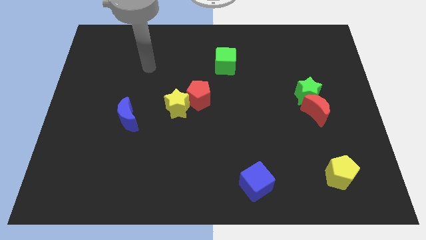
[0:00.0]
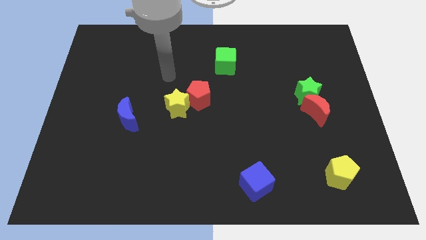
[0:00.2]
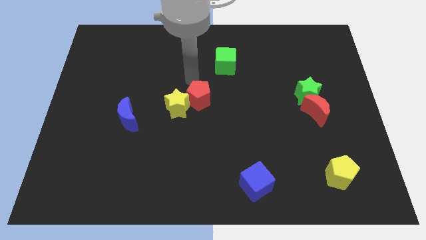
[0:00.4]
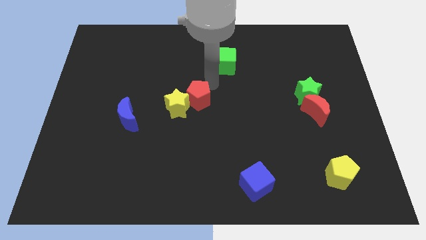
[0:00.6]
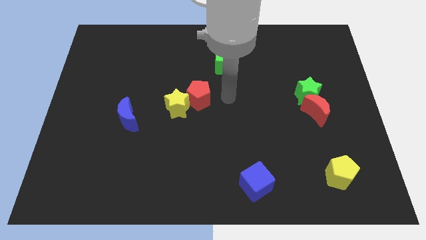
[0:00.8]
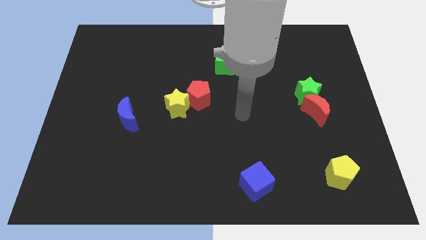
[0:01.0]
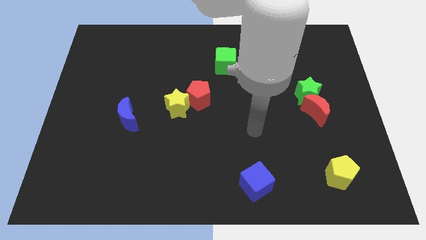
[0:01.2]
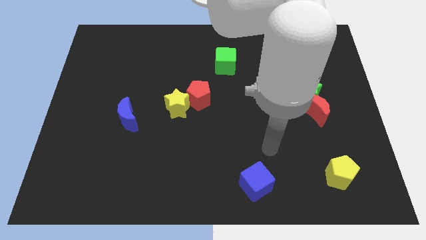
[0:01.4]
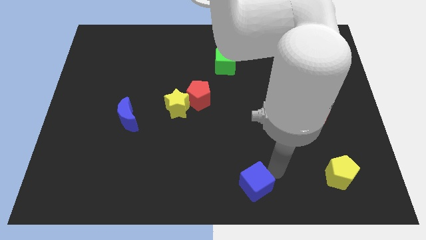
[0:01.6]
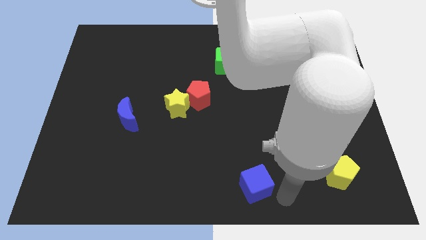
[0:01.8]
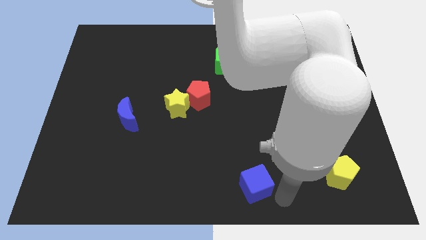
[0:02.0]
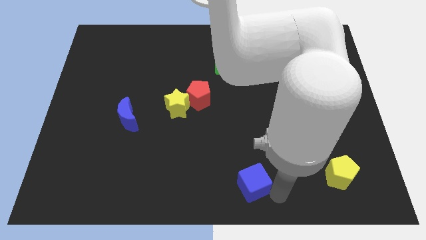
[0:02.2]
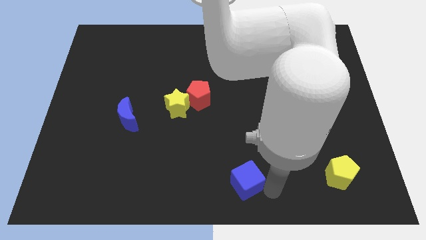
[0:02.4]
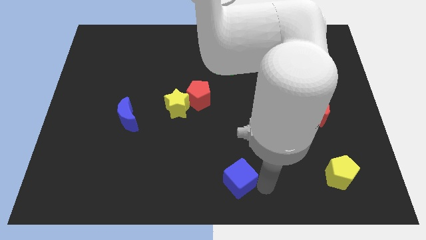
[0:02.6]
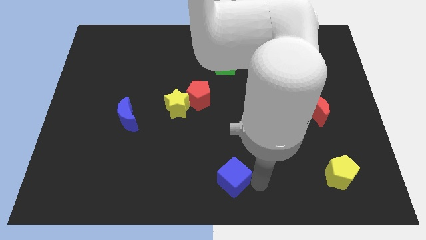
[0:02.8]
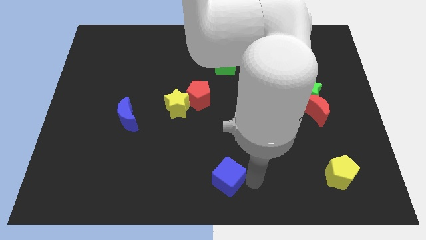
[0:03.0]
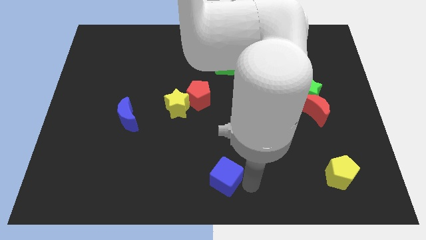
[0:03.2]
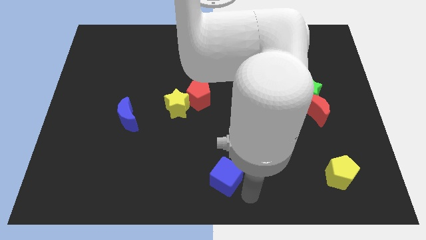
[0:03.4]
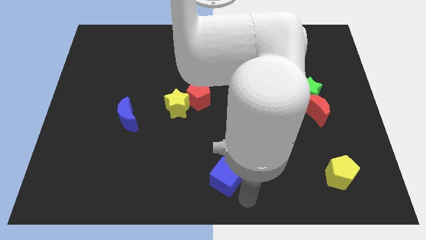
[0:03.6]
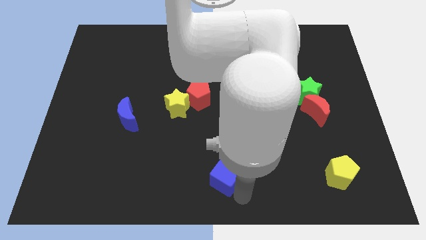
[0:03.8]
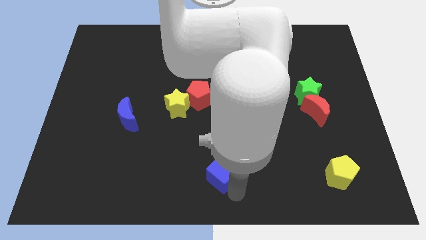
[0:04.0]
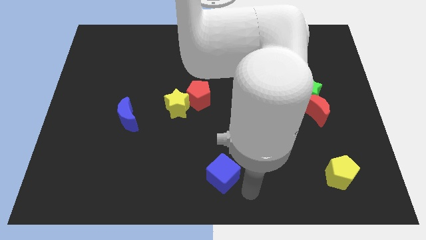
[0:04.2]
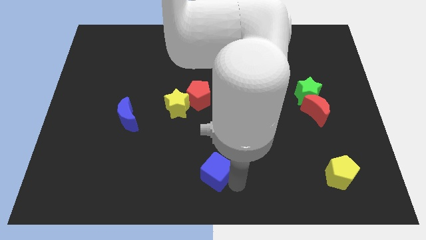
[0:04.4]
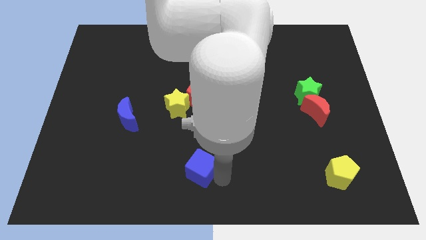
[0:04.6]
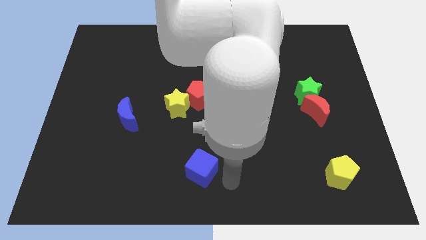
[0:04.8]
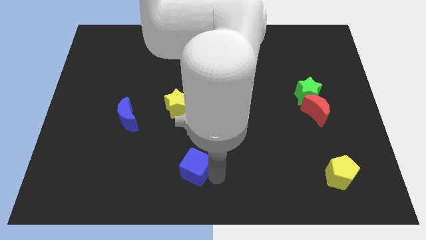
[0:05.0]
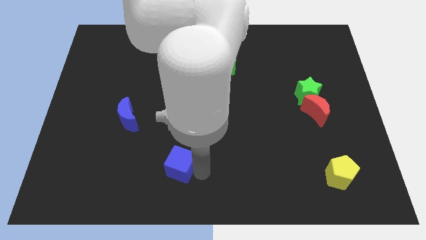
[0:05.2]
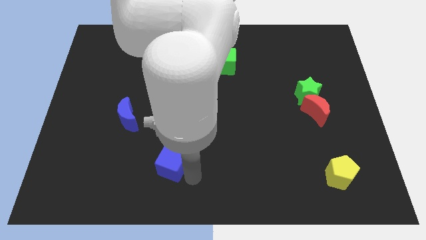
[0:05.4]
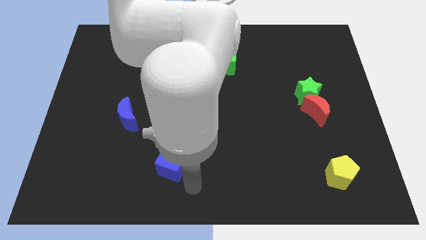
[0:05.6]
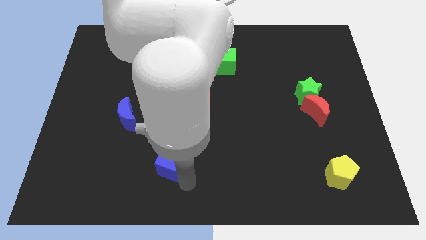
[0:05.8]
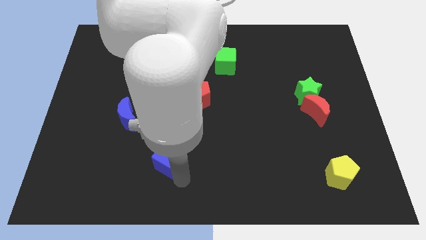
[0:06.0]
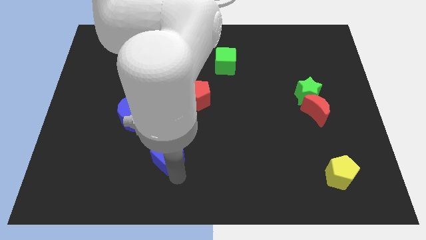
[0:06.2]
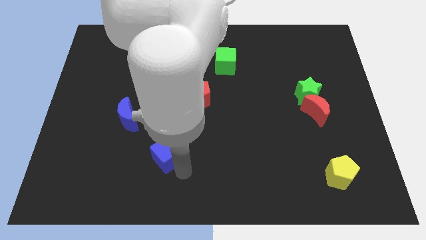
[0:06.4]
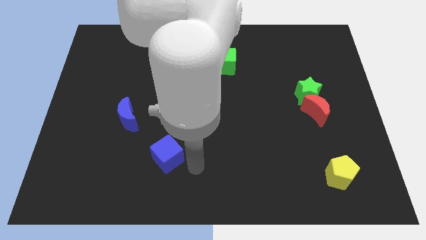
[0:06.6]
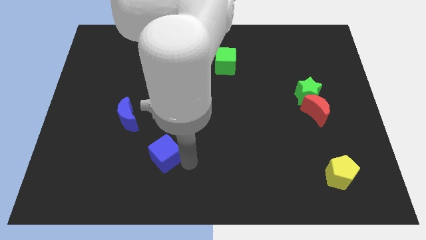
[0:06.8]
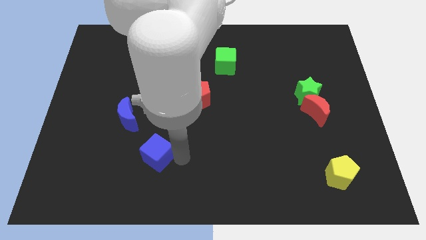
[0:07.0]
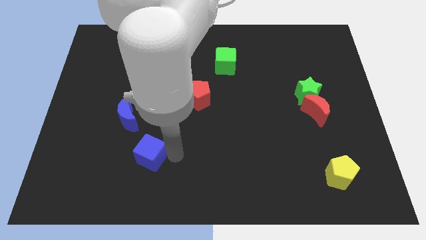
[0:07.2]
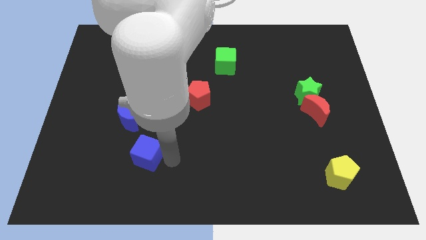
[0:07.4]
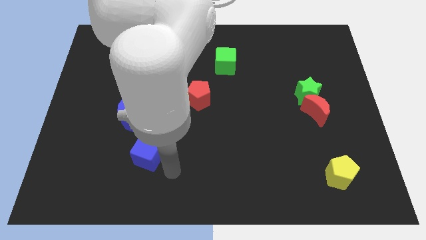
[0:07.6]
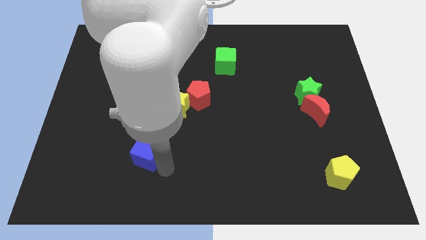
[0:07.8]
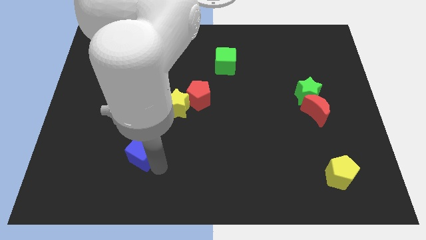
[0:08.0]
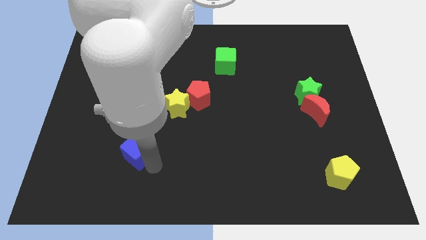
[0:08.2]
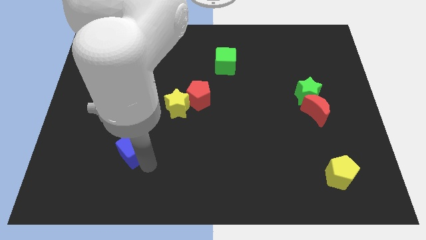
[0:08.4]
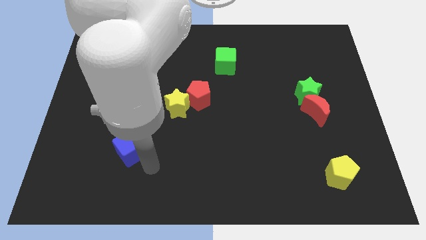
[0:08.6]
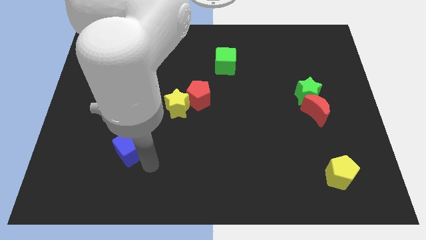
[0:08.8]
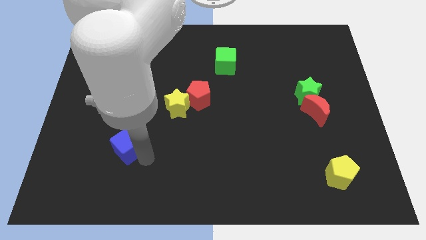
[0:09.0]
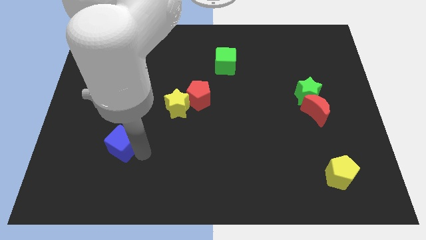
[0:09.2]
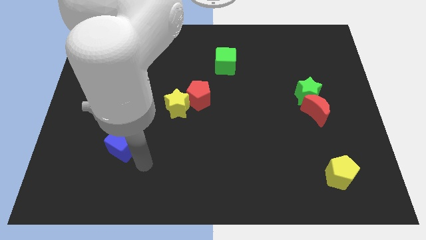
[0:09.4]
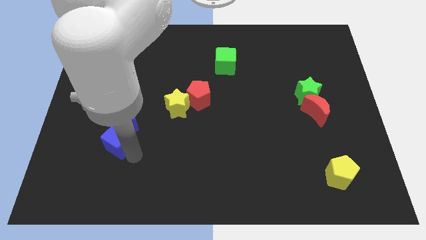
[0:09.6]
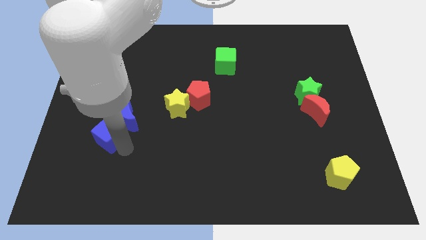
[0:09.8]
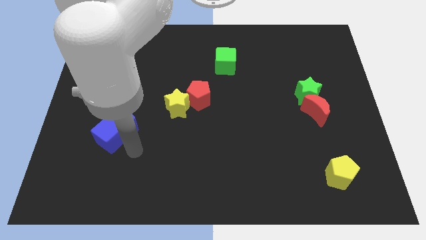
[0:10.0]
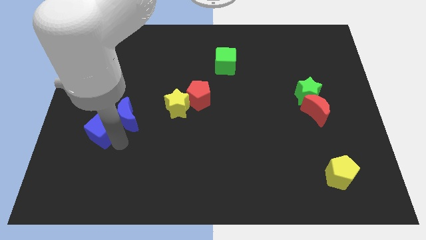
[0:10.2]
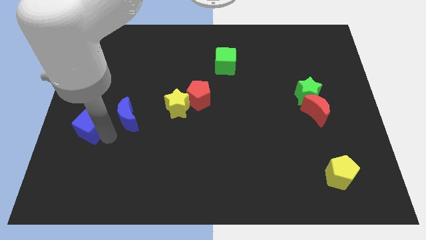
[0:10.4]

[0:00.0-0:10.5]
slide the blue cube to the left side of the board

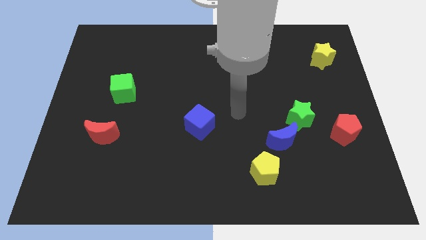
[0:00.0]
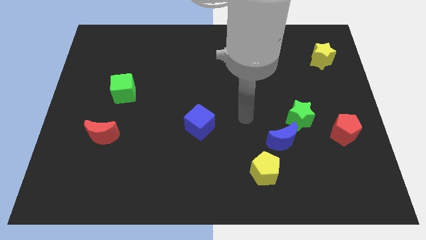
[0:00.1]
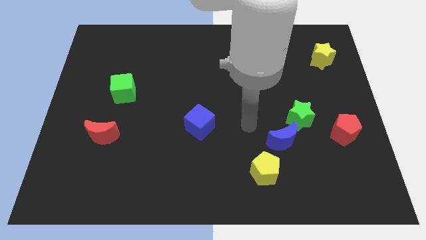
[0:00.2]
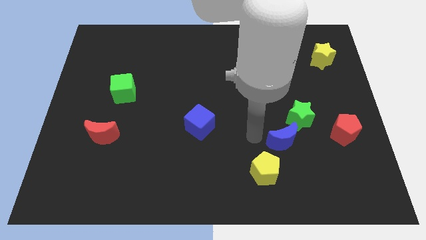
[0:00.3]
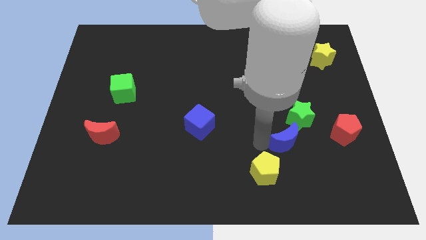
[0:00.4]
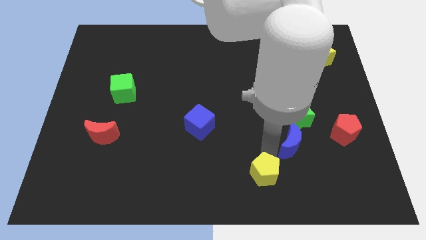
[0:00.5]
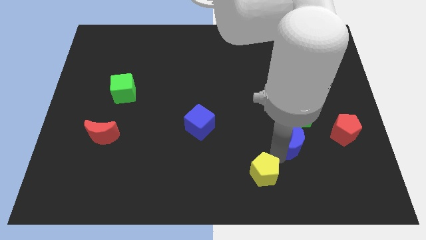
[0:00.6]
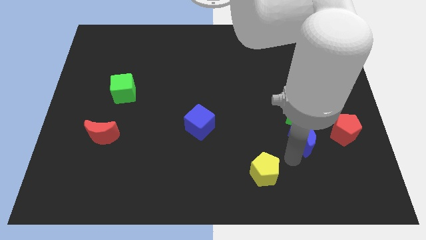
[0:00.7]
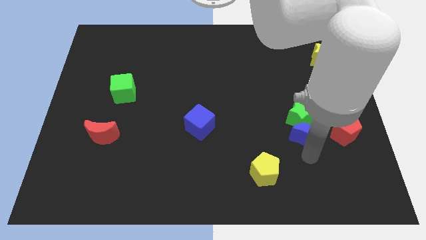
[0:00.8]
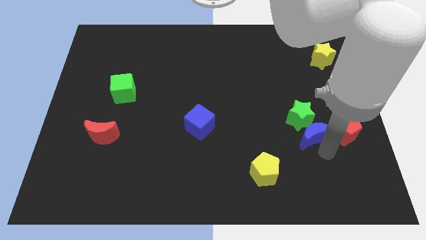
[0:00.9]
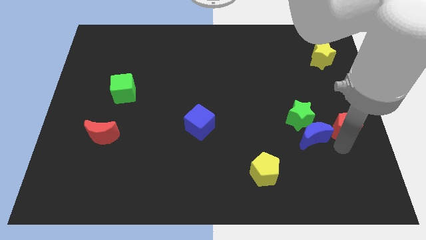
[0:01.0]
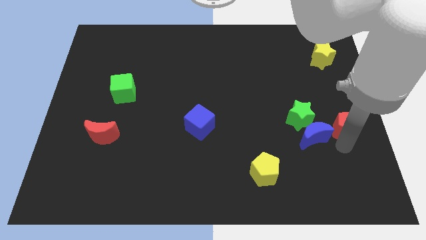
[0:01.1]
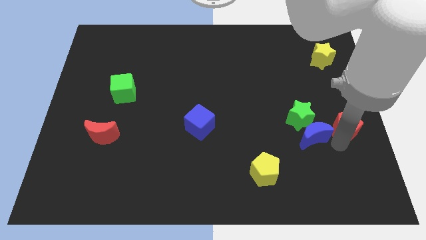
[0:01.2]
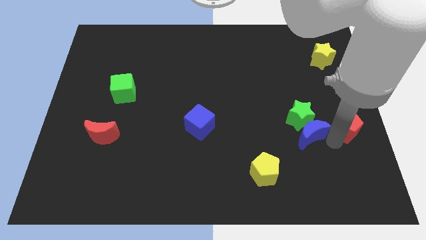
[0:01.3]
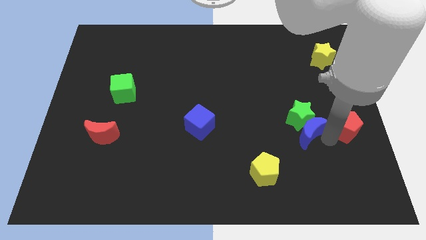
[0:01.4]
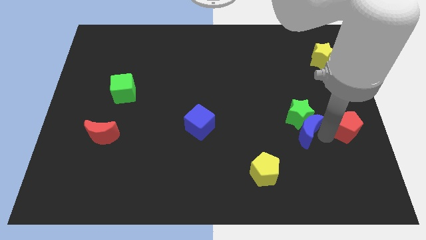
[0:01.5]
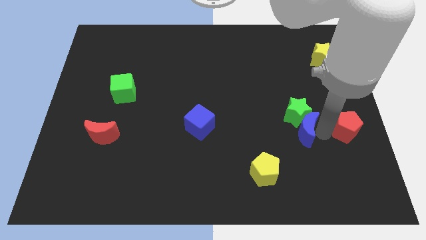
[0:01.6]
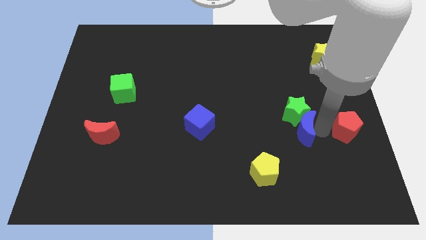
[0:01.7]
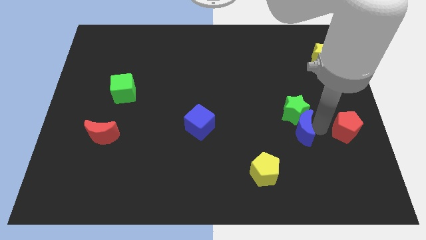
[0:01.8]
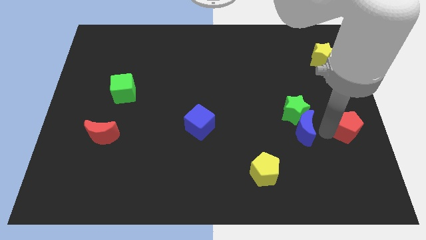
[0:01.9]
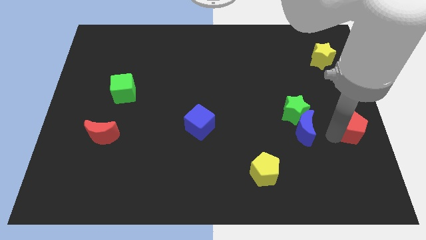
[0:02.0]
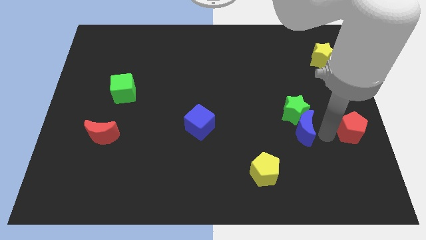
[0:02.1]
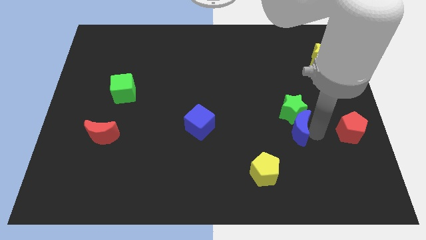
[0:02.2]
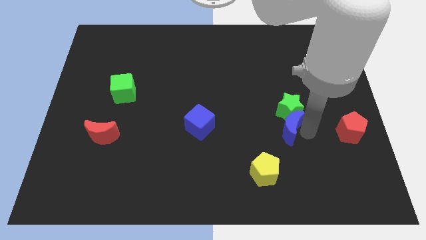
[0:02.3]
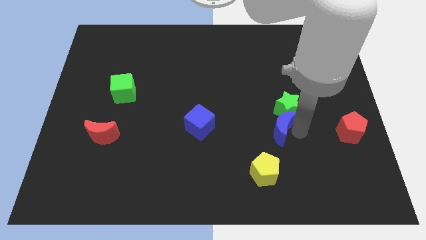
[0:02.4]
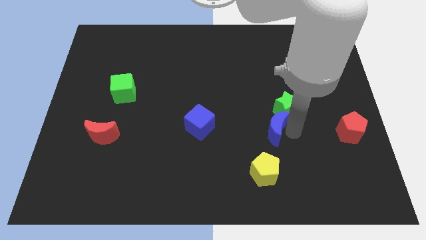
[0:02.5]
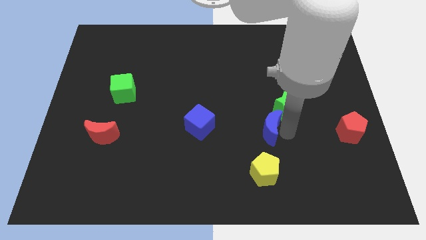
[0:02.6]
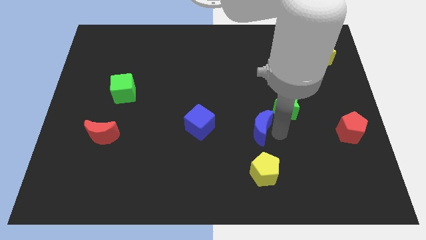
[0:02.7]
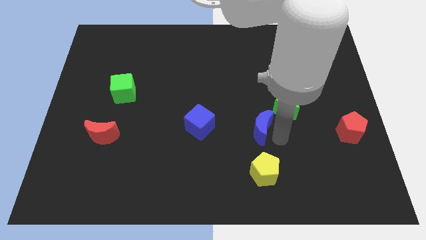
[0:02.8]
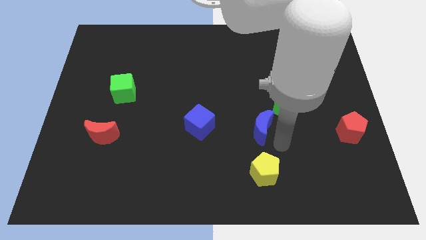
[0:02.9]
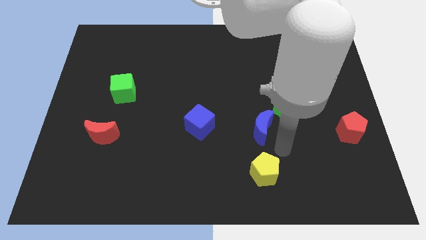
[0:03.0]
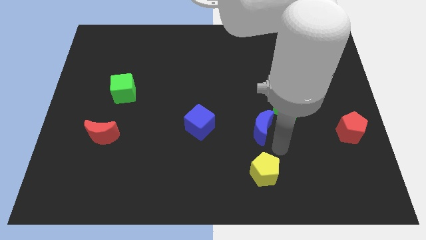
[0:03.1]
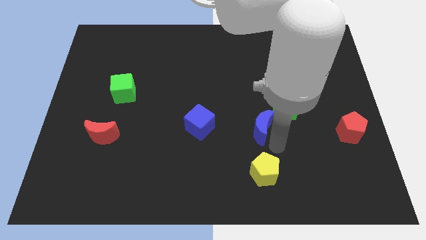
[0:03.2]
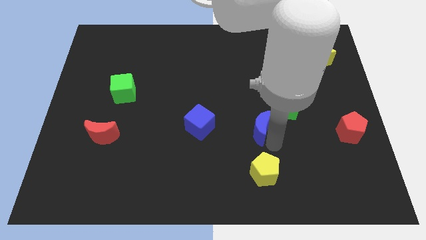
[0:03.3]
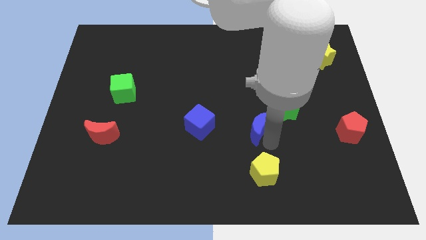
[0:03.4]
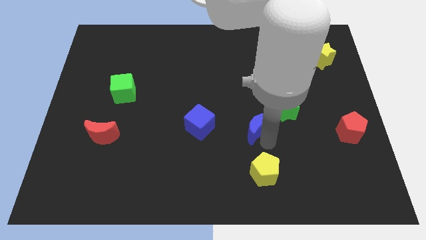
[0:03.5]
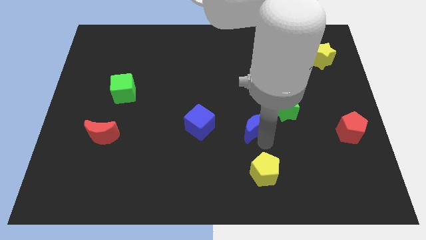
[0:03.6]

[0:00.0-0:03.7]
move the blue moon to the center of the board
